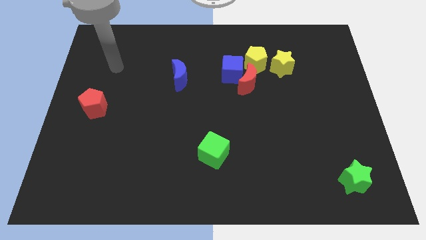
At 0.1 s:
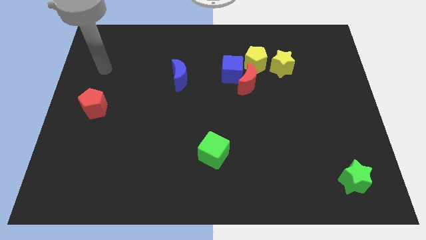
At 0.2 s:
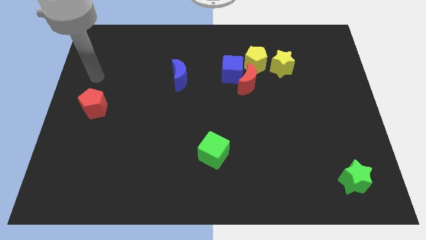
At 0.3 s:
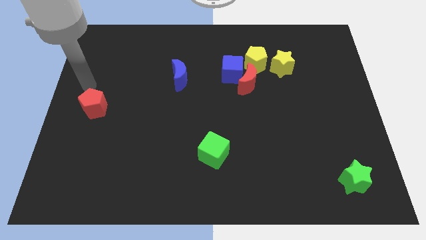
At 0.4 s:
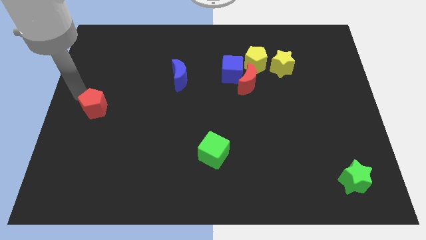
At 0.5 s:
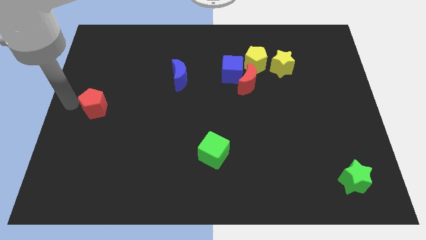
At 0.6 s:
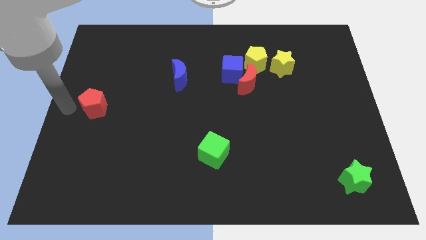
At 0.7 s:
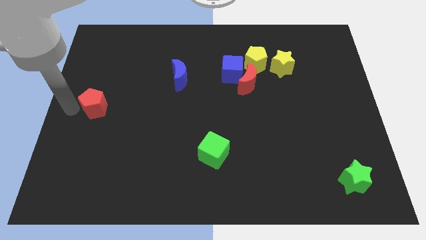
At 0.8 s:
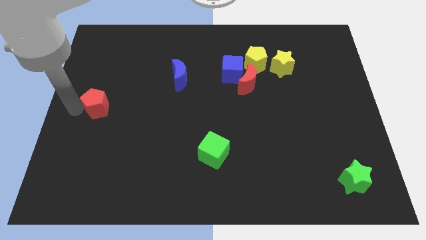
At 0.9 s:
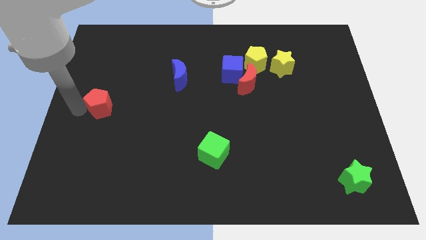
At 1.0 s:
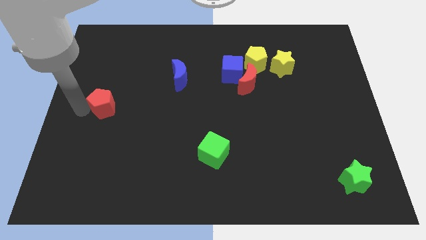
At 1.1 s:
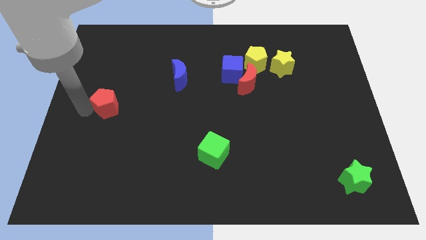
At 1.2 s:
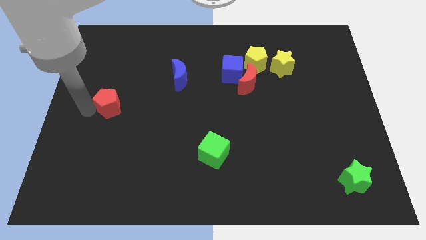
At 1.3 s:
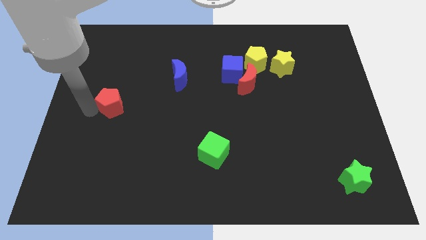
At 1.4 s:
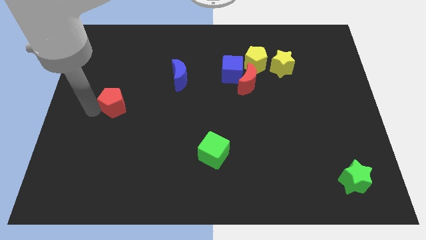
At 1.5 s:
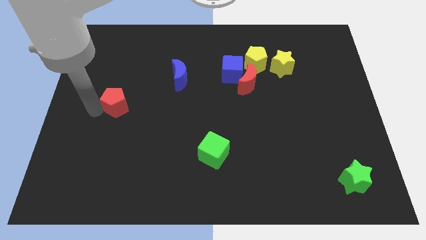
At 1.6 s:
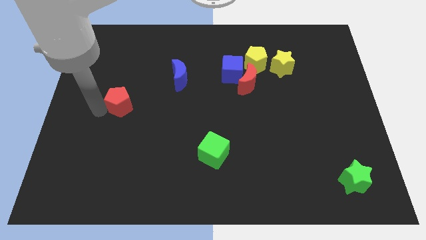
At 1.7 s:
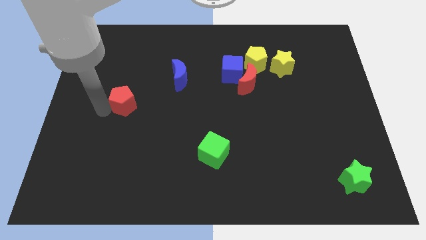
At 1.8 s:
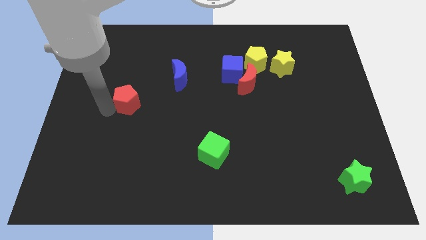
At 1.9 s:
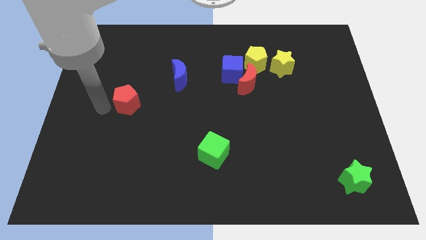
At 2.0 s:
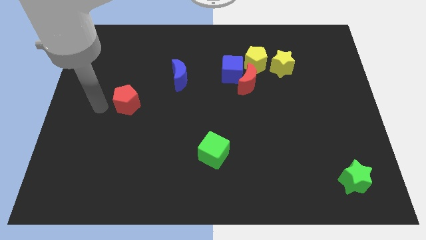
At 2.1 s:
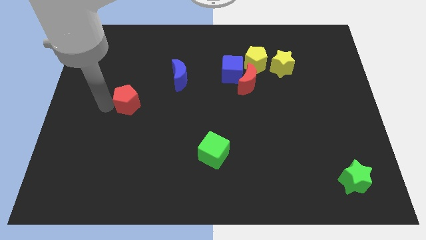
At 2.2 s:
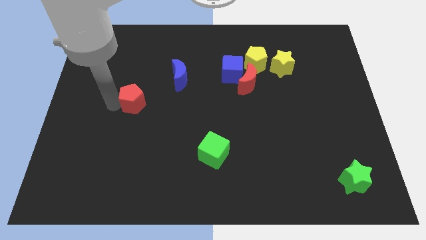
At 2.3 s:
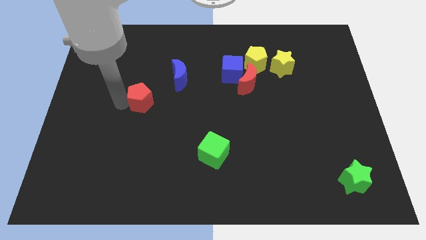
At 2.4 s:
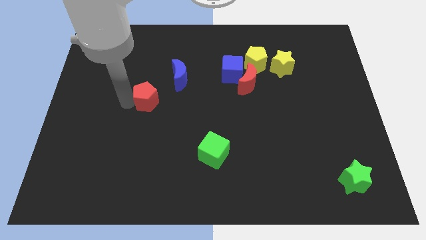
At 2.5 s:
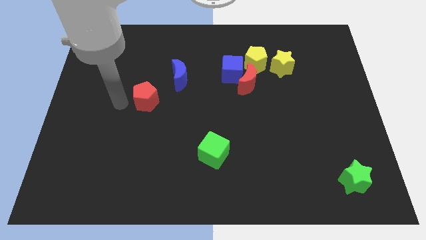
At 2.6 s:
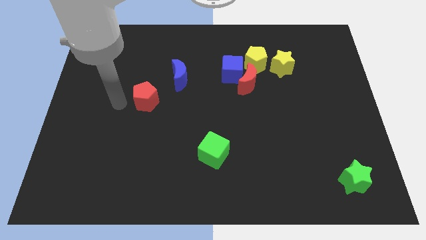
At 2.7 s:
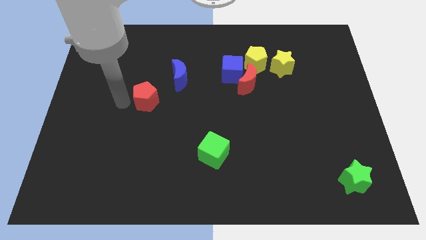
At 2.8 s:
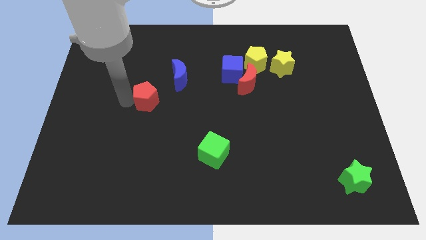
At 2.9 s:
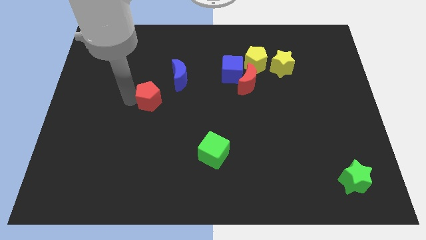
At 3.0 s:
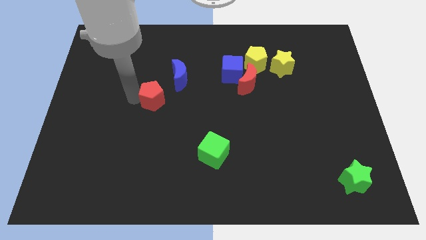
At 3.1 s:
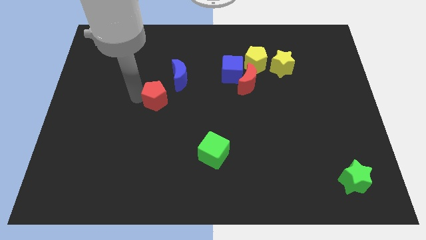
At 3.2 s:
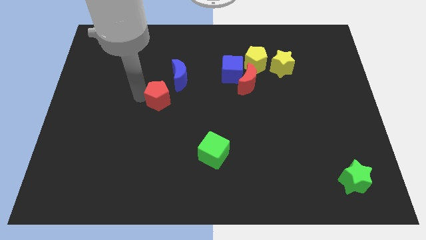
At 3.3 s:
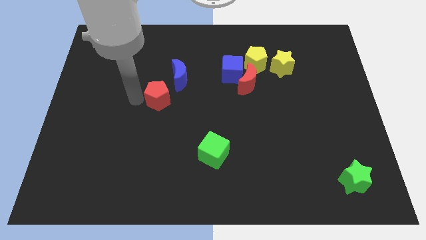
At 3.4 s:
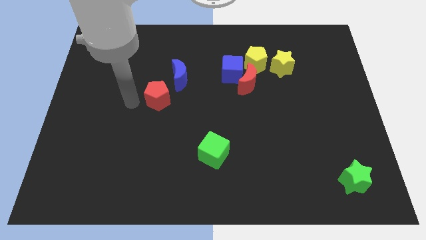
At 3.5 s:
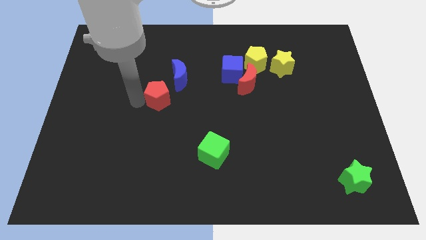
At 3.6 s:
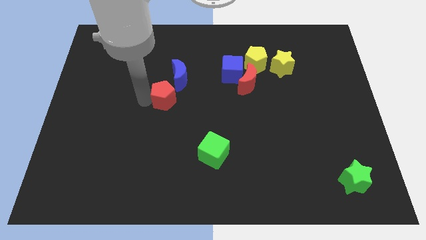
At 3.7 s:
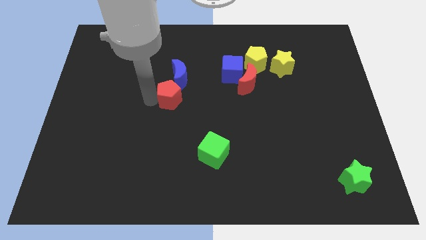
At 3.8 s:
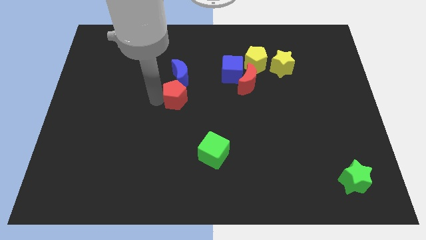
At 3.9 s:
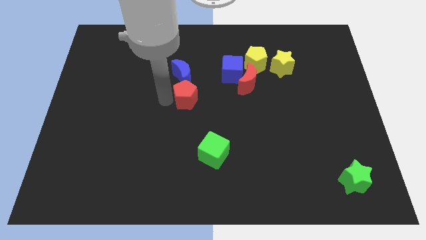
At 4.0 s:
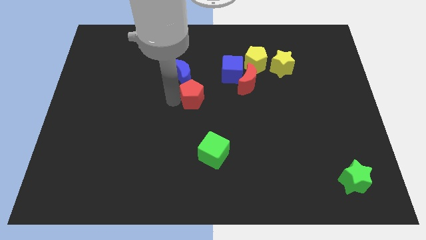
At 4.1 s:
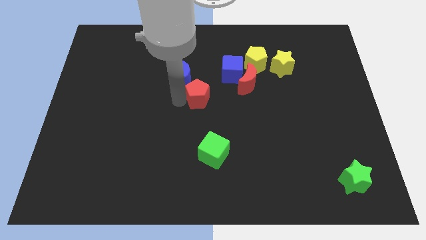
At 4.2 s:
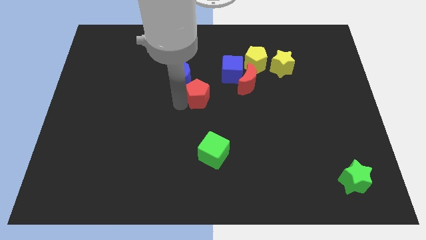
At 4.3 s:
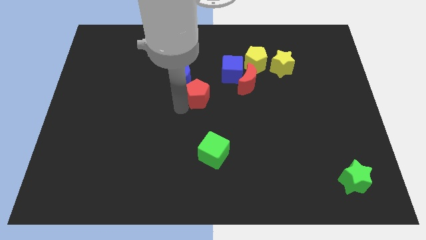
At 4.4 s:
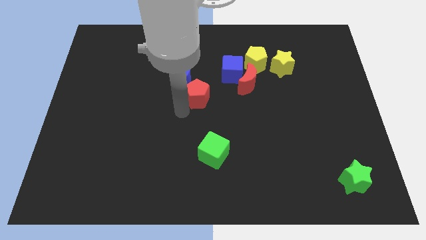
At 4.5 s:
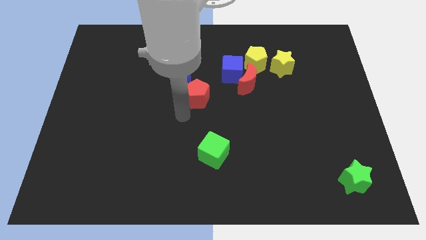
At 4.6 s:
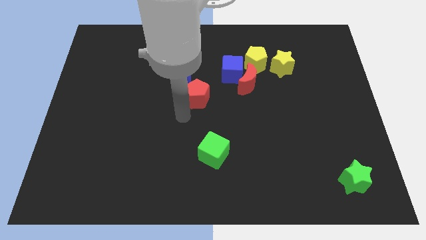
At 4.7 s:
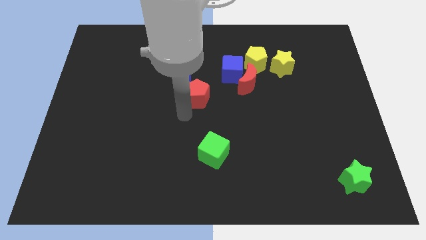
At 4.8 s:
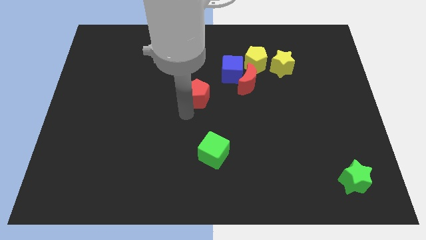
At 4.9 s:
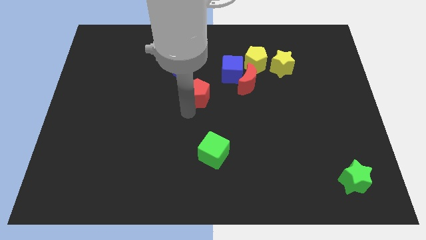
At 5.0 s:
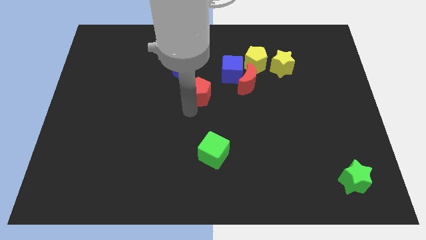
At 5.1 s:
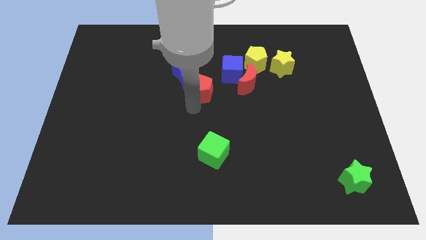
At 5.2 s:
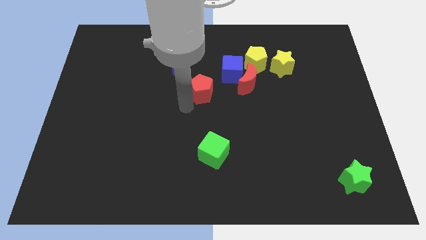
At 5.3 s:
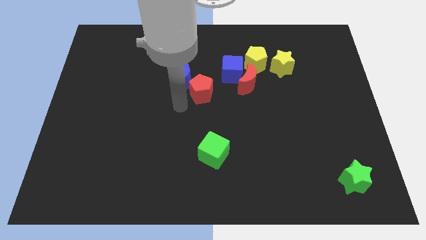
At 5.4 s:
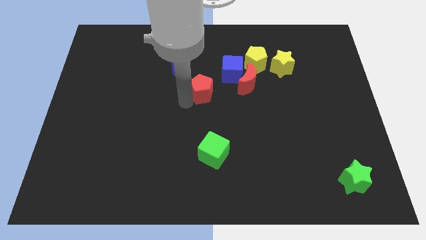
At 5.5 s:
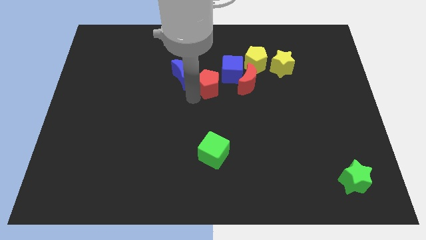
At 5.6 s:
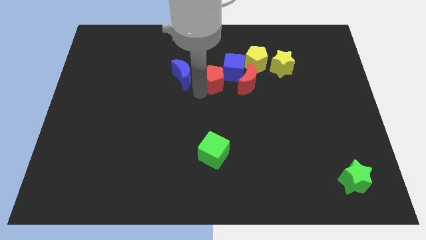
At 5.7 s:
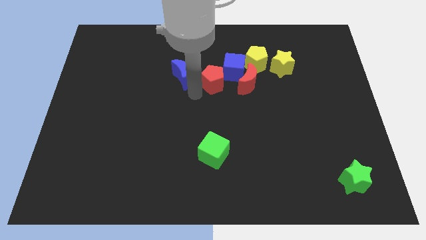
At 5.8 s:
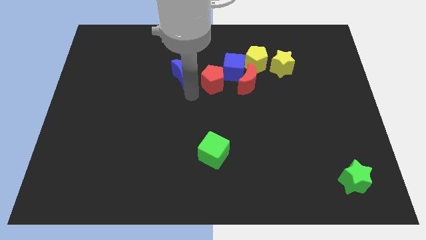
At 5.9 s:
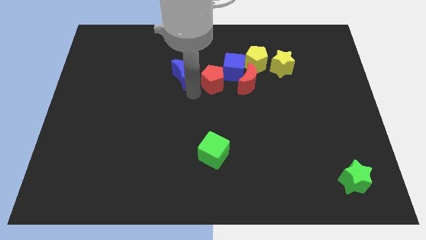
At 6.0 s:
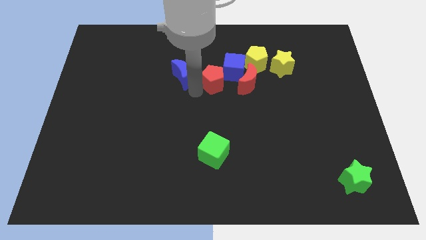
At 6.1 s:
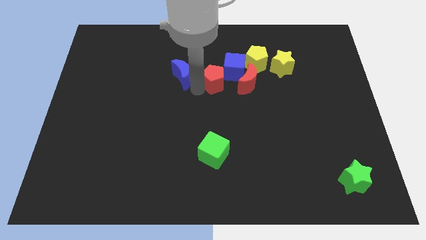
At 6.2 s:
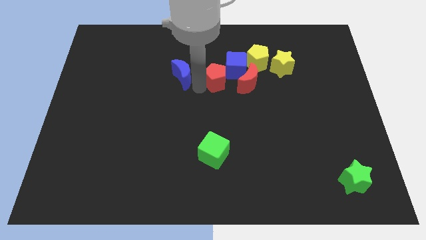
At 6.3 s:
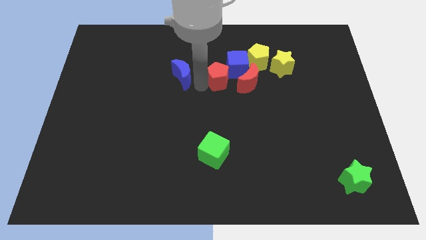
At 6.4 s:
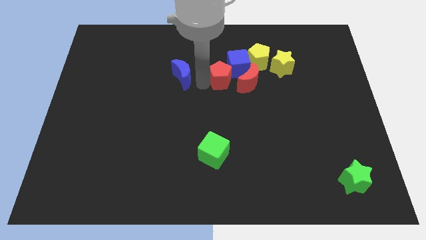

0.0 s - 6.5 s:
move the red pentagon next to the blue cube
